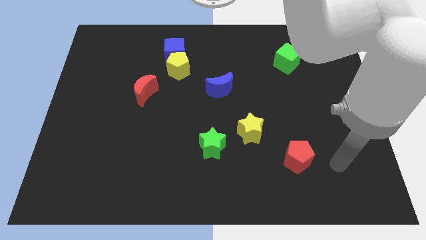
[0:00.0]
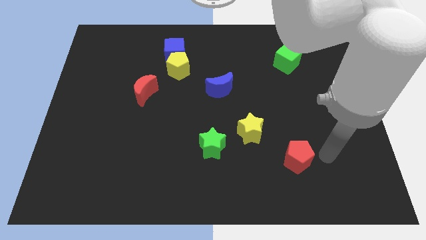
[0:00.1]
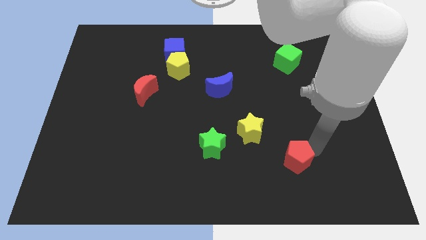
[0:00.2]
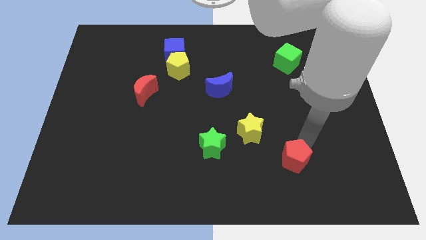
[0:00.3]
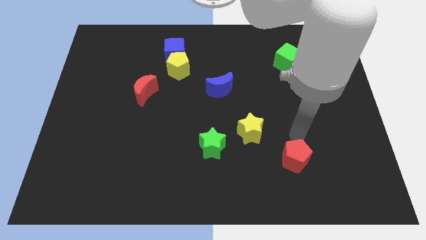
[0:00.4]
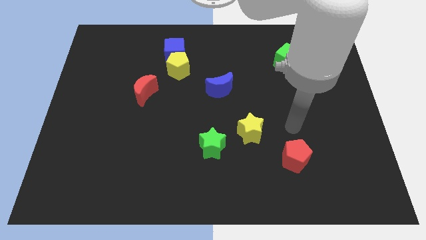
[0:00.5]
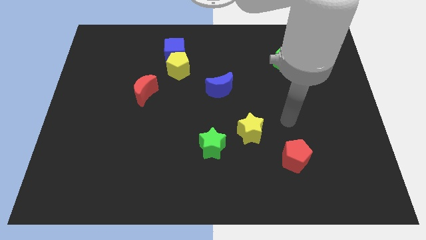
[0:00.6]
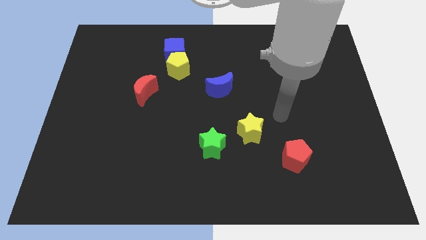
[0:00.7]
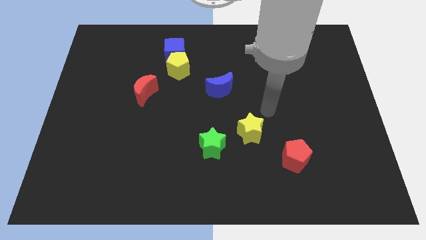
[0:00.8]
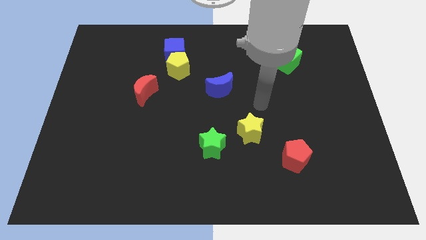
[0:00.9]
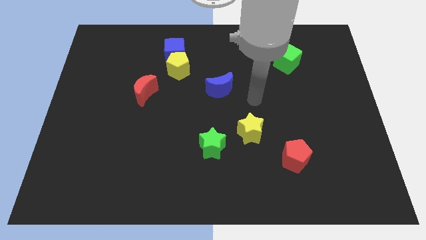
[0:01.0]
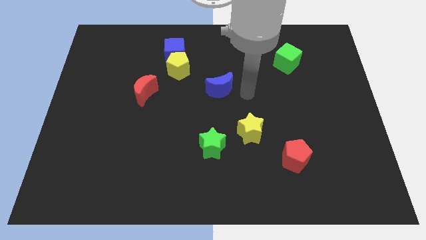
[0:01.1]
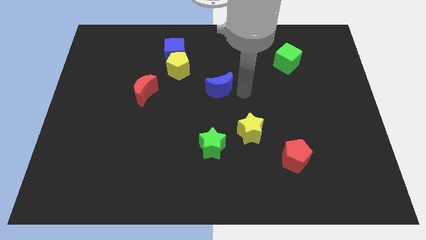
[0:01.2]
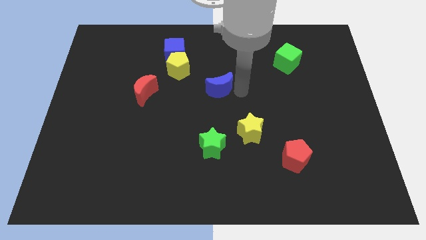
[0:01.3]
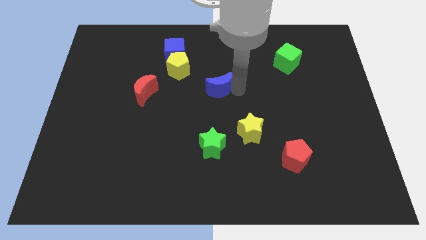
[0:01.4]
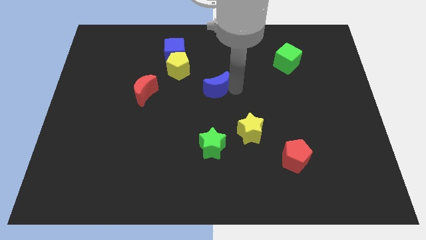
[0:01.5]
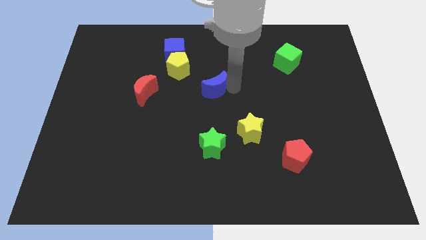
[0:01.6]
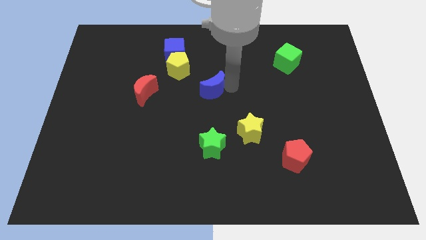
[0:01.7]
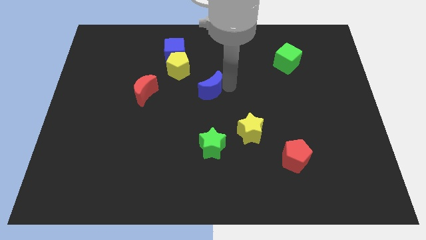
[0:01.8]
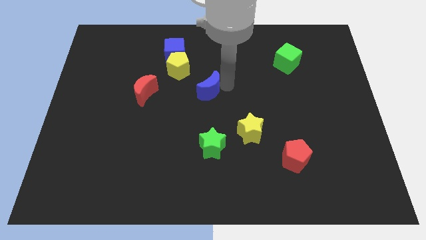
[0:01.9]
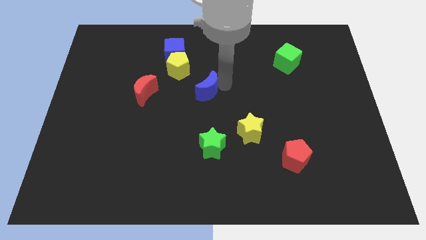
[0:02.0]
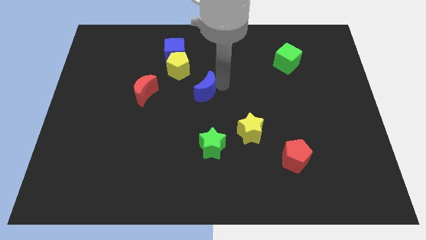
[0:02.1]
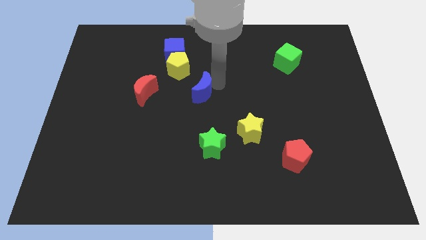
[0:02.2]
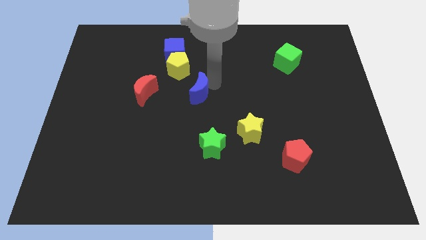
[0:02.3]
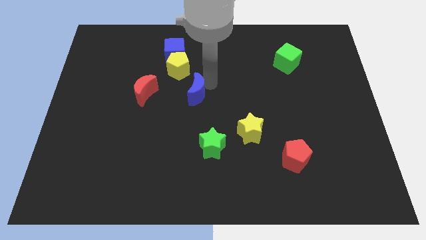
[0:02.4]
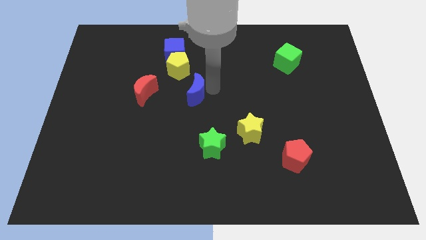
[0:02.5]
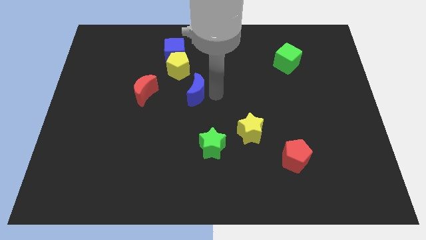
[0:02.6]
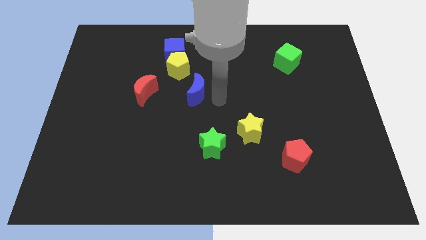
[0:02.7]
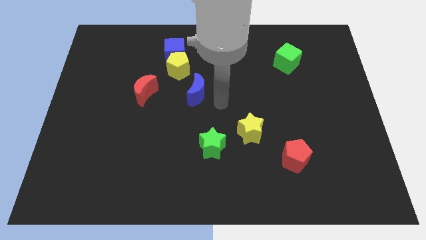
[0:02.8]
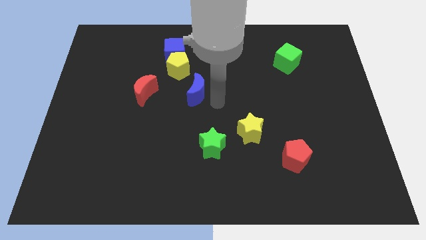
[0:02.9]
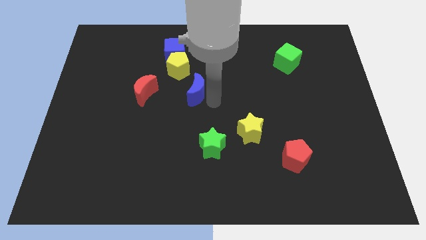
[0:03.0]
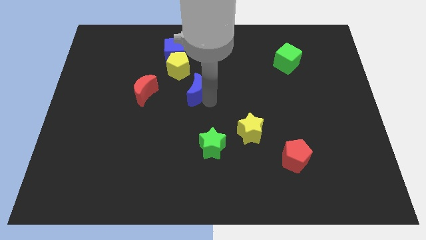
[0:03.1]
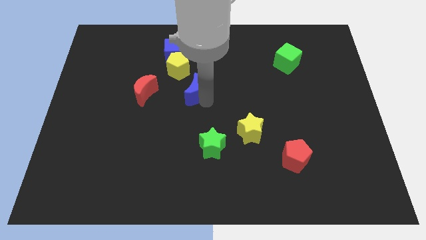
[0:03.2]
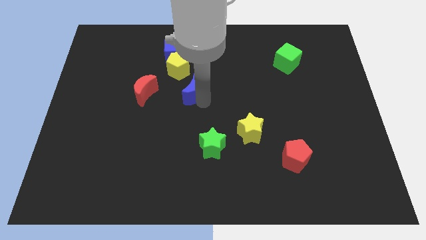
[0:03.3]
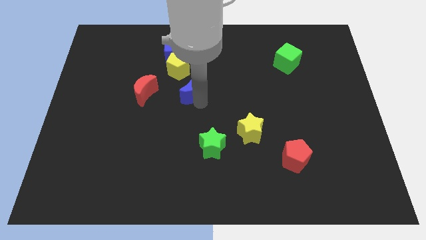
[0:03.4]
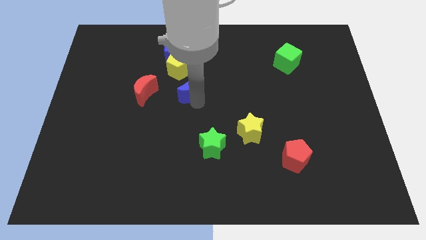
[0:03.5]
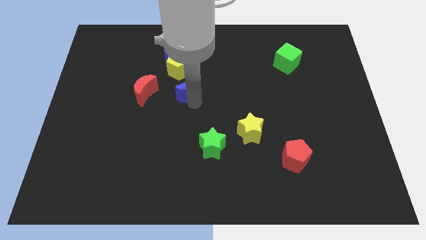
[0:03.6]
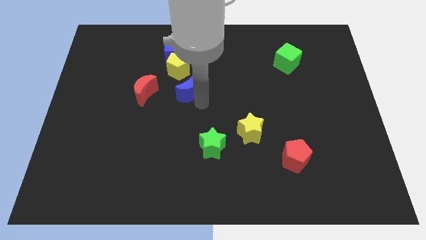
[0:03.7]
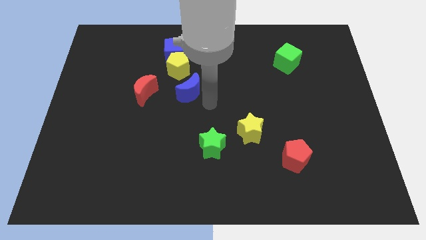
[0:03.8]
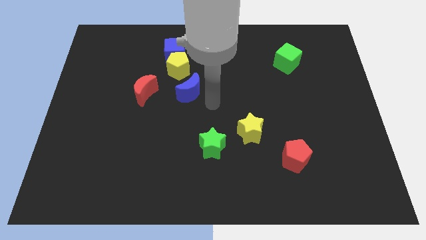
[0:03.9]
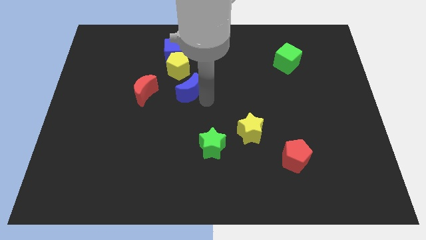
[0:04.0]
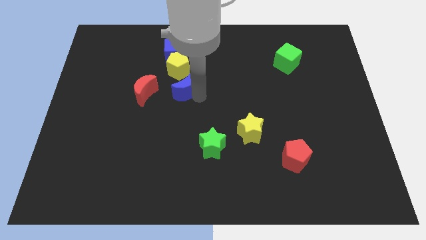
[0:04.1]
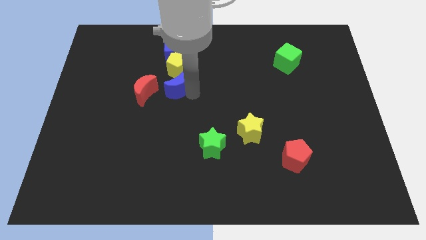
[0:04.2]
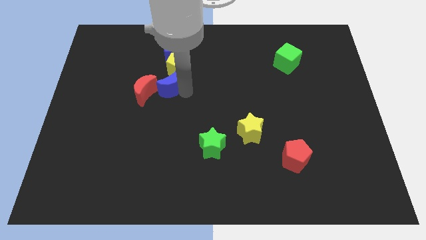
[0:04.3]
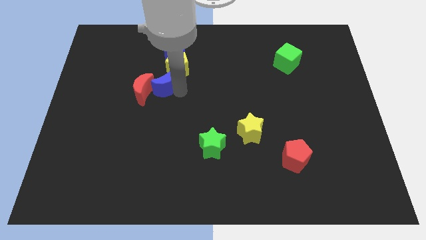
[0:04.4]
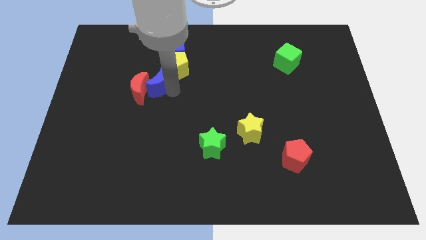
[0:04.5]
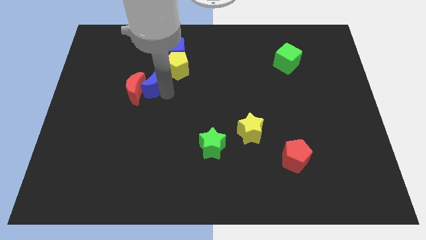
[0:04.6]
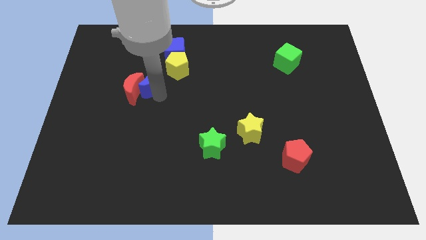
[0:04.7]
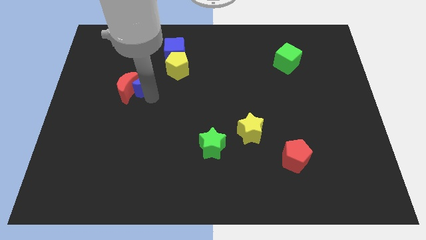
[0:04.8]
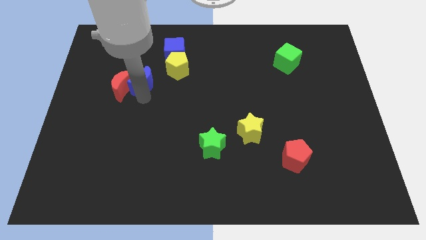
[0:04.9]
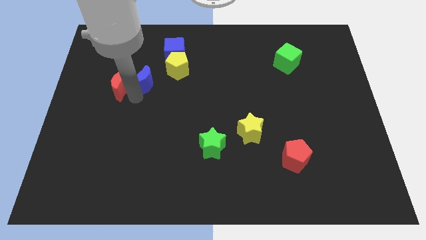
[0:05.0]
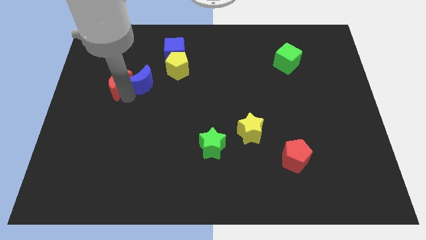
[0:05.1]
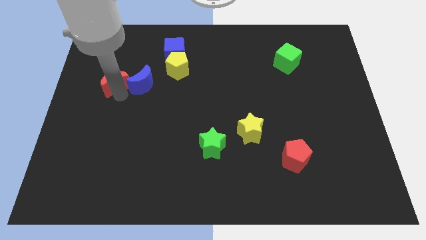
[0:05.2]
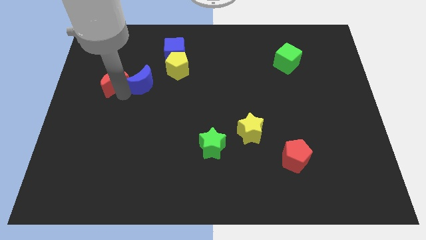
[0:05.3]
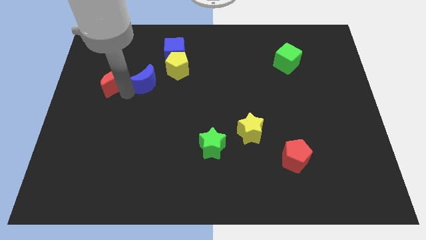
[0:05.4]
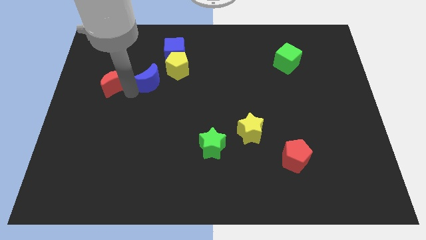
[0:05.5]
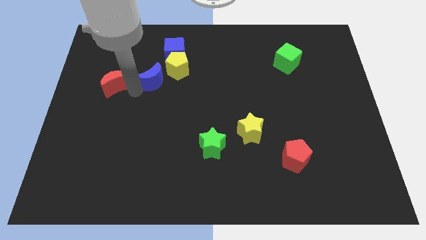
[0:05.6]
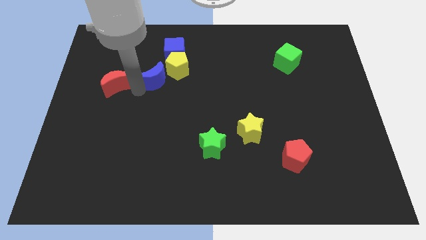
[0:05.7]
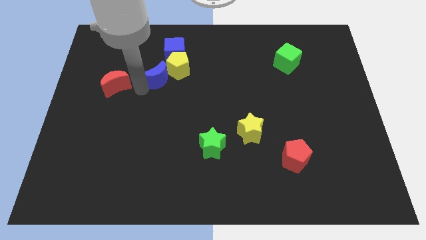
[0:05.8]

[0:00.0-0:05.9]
put the blue moon towards the yellow pentagon

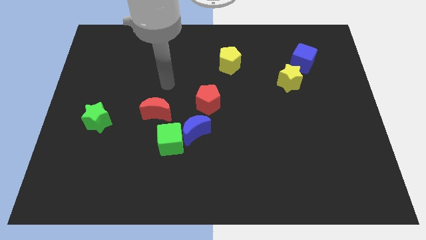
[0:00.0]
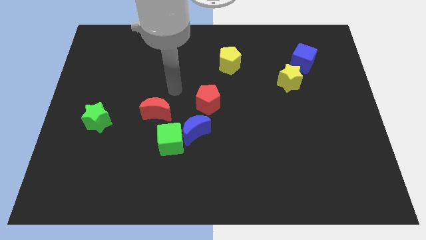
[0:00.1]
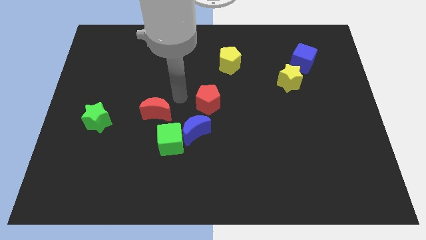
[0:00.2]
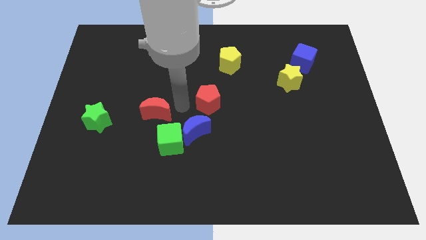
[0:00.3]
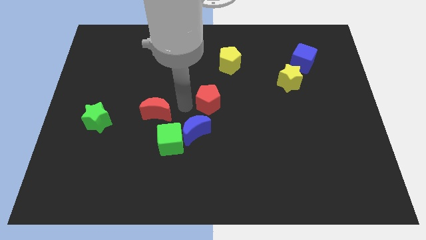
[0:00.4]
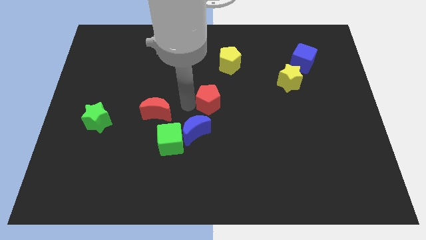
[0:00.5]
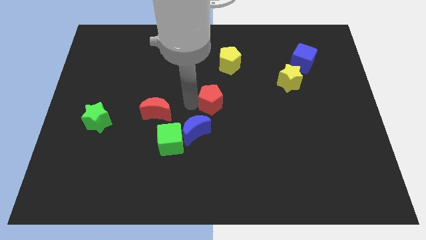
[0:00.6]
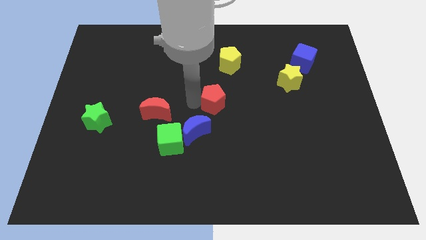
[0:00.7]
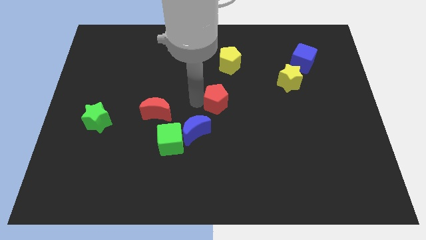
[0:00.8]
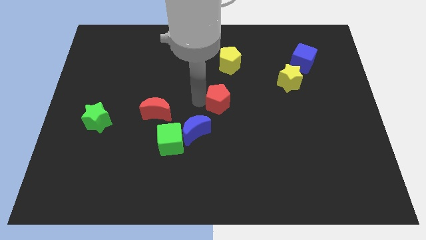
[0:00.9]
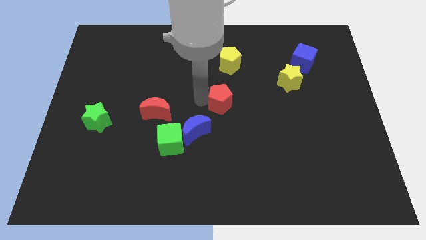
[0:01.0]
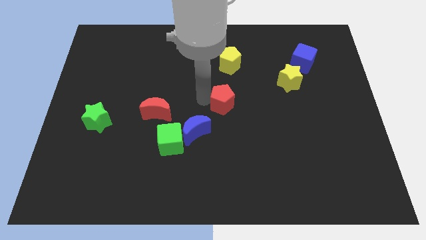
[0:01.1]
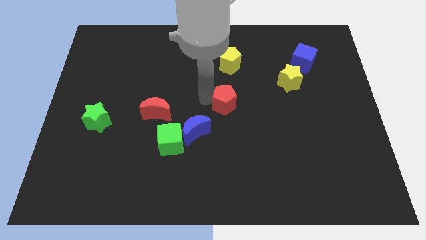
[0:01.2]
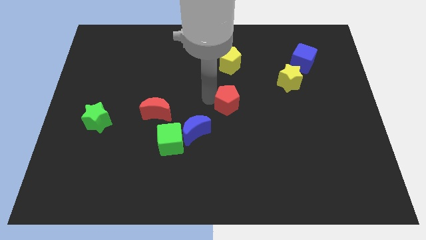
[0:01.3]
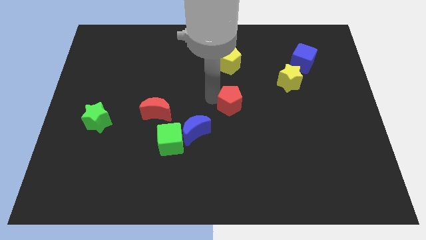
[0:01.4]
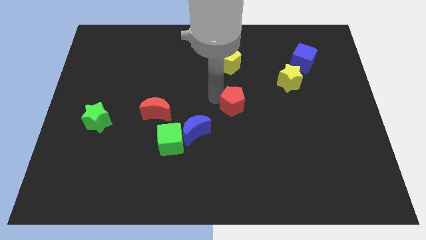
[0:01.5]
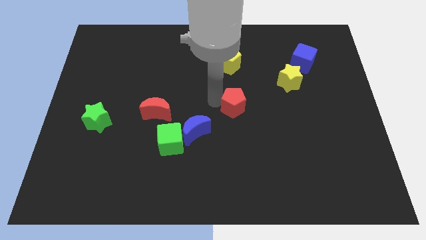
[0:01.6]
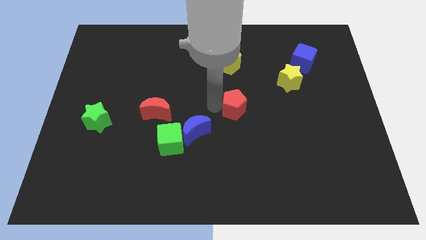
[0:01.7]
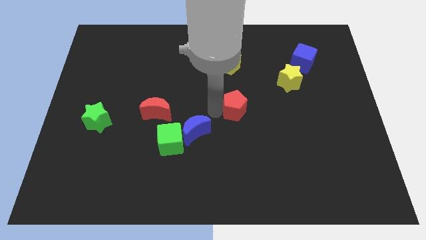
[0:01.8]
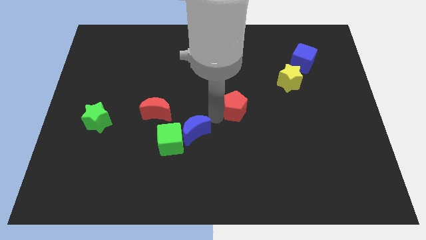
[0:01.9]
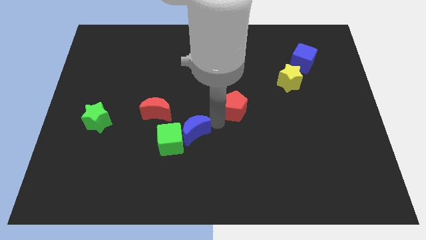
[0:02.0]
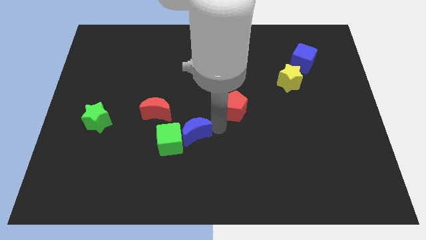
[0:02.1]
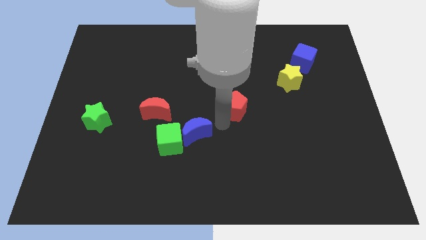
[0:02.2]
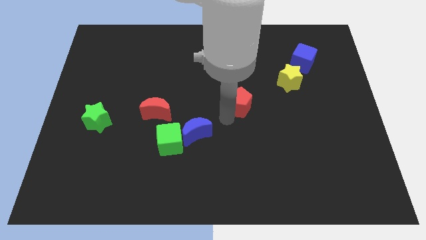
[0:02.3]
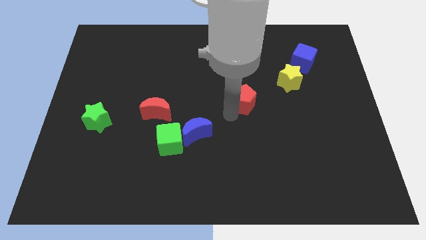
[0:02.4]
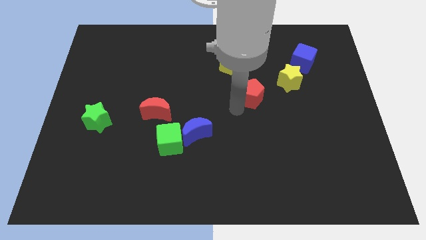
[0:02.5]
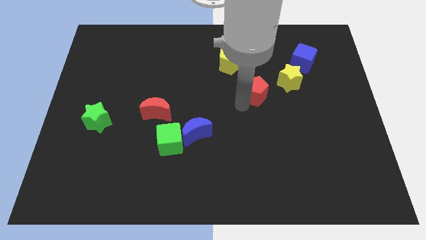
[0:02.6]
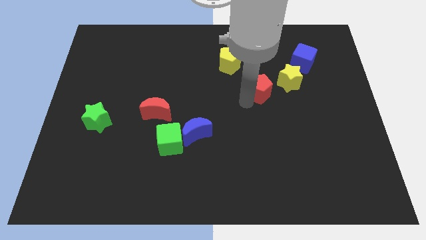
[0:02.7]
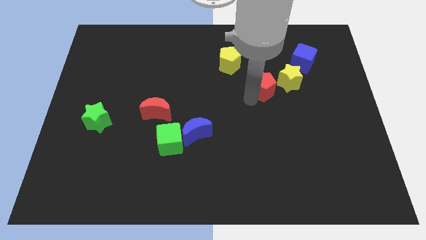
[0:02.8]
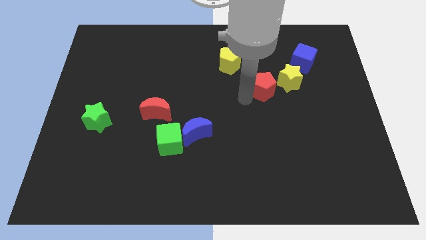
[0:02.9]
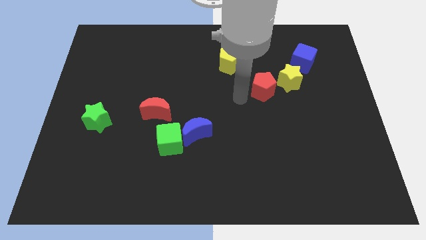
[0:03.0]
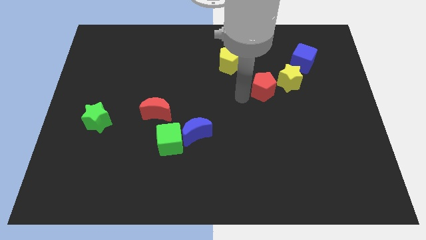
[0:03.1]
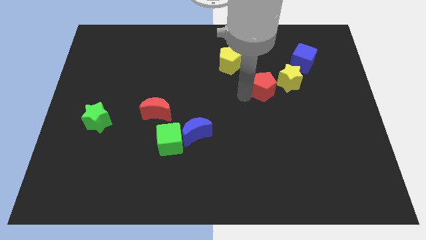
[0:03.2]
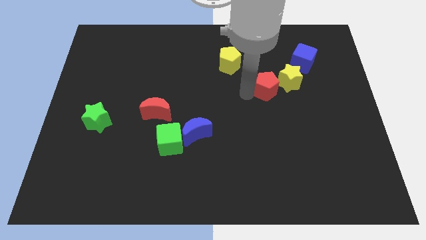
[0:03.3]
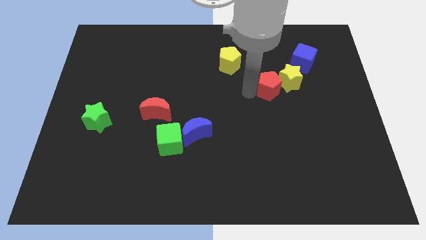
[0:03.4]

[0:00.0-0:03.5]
put the red pentagon to the yellow star
